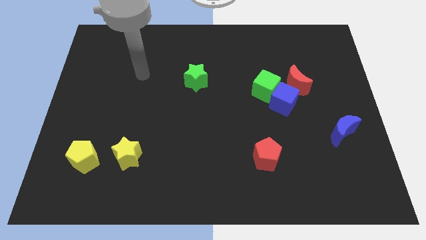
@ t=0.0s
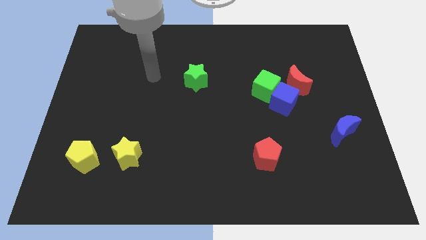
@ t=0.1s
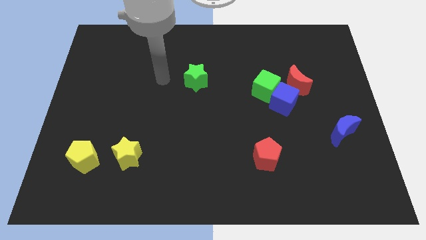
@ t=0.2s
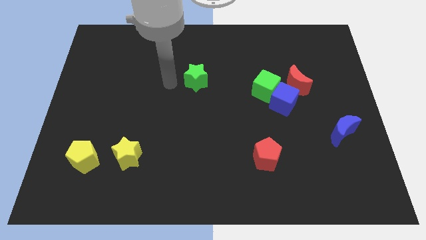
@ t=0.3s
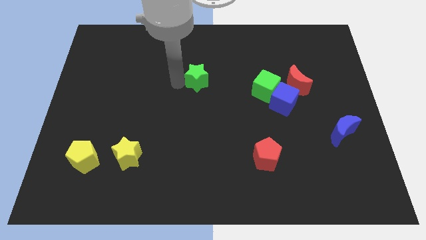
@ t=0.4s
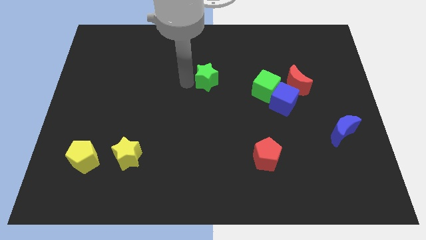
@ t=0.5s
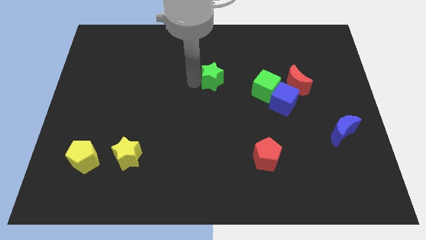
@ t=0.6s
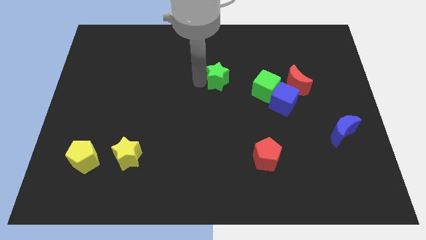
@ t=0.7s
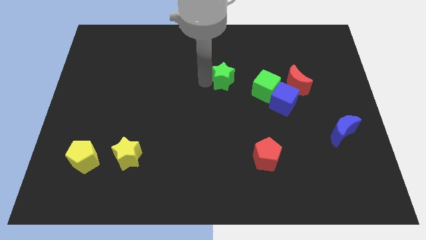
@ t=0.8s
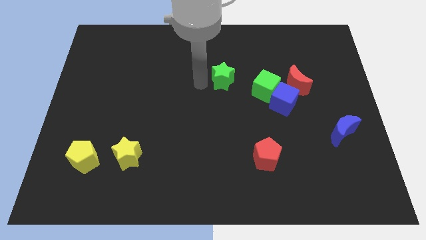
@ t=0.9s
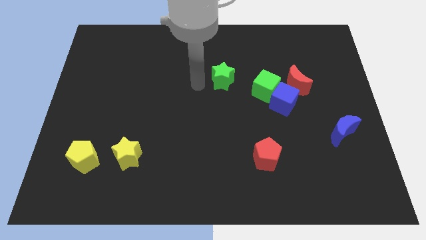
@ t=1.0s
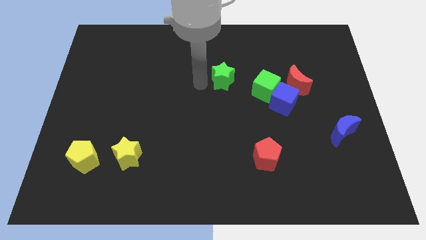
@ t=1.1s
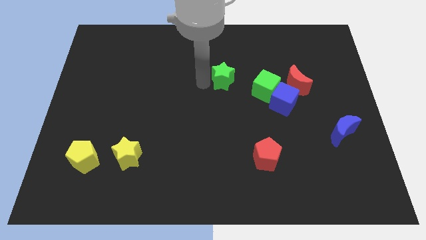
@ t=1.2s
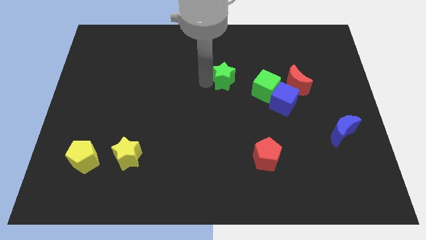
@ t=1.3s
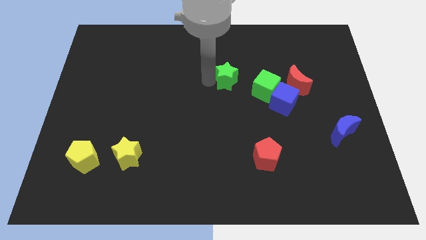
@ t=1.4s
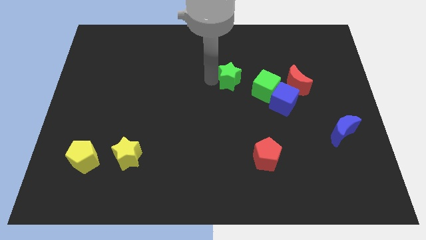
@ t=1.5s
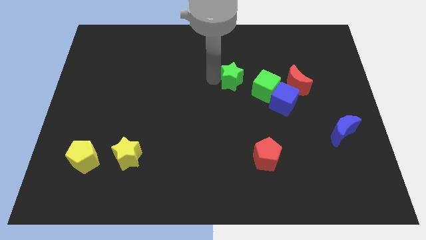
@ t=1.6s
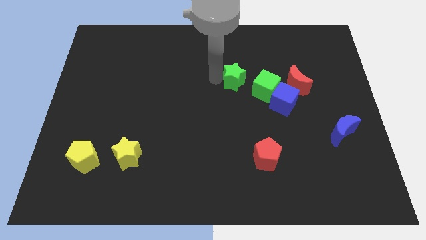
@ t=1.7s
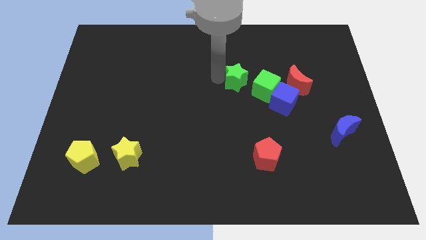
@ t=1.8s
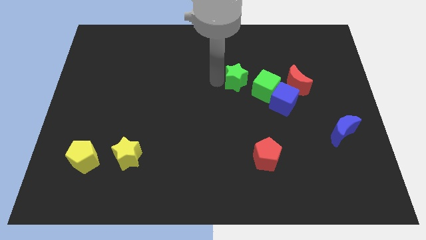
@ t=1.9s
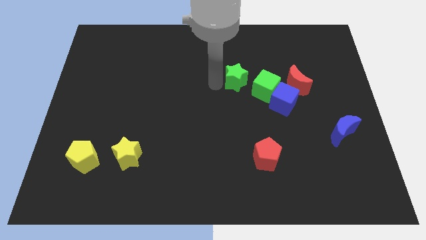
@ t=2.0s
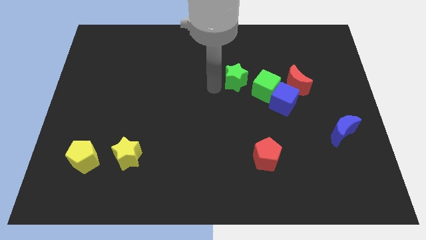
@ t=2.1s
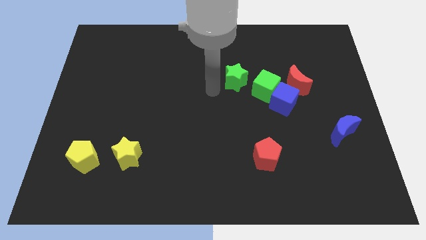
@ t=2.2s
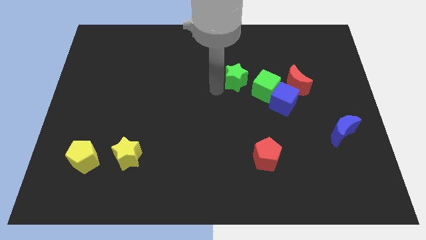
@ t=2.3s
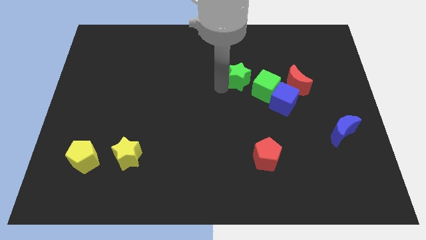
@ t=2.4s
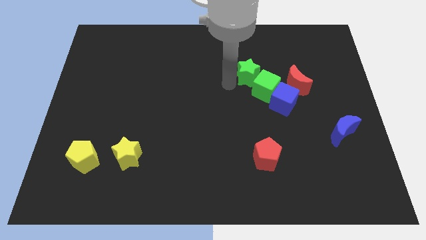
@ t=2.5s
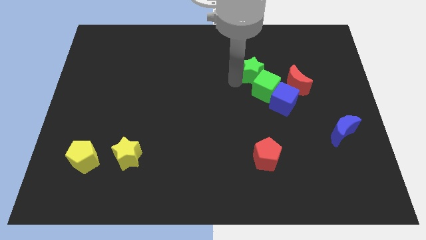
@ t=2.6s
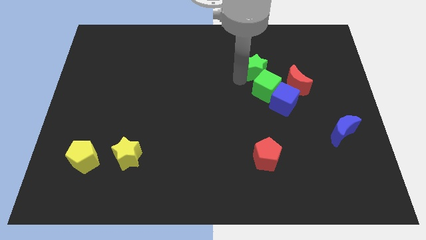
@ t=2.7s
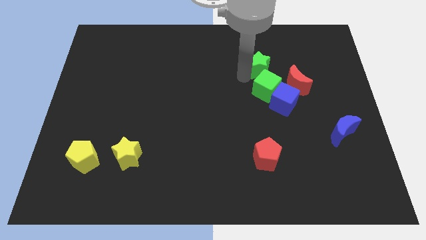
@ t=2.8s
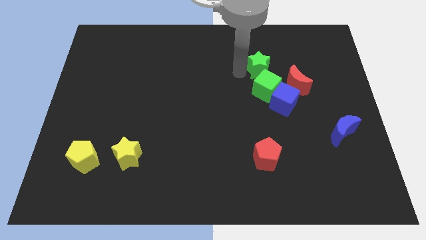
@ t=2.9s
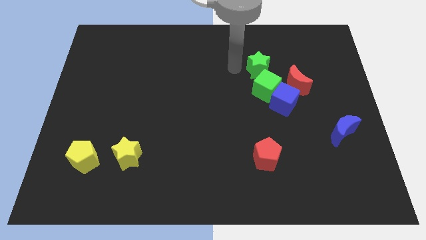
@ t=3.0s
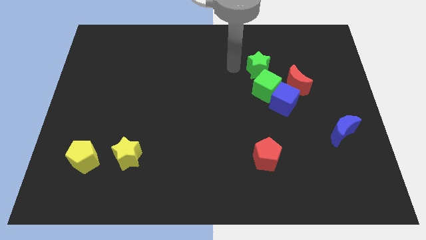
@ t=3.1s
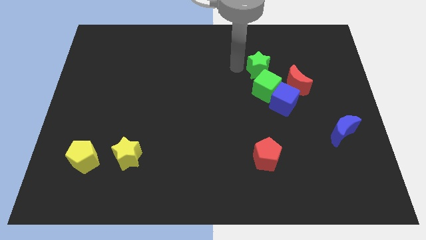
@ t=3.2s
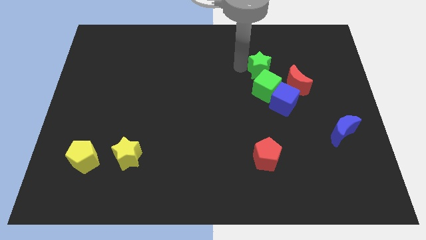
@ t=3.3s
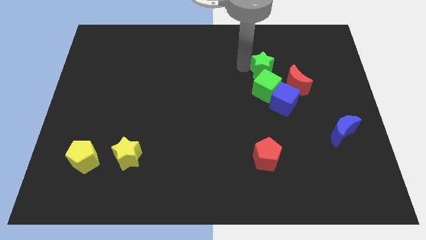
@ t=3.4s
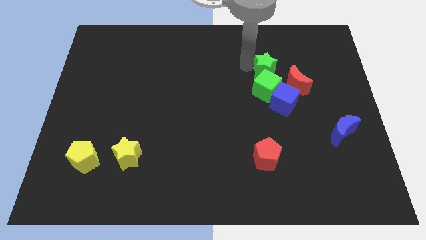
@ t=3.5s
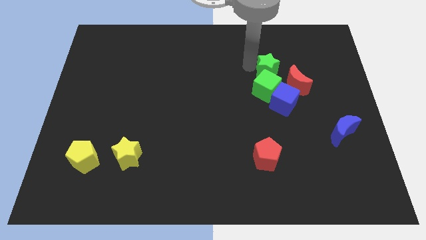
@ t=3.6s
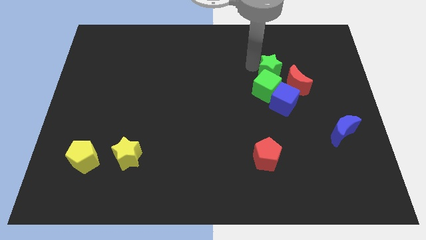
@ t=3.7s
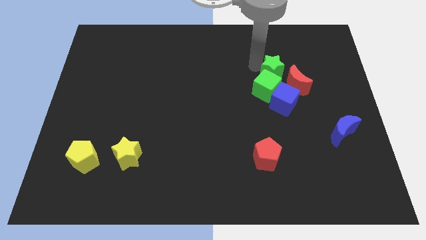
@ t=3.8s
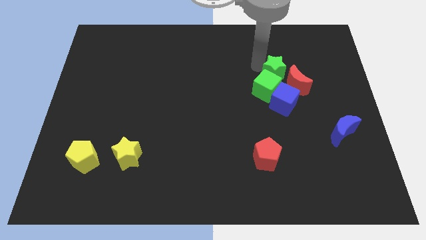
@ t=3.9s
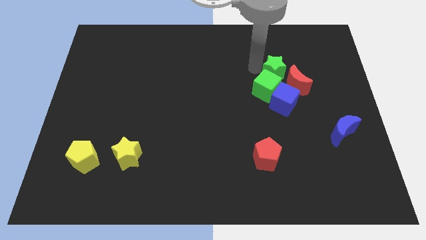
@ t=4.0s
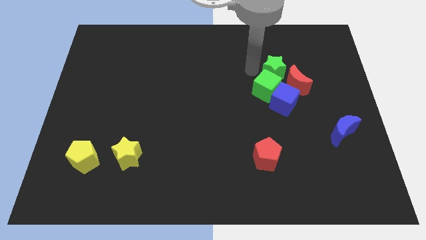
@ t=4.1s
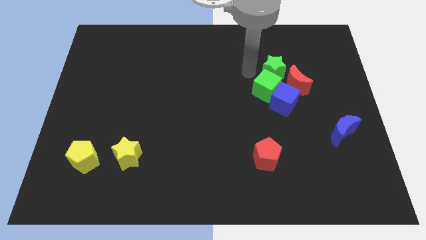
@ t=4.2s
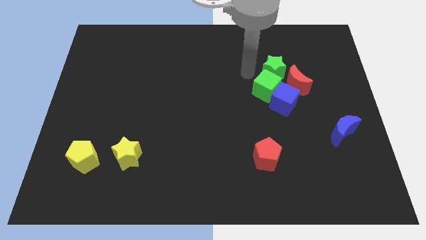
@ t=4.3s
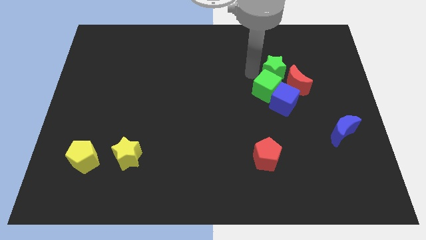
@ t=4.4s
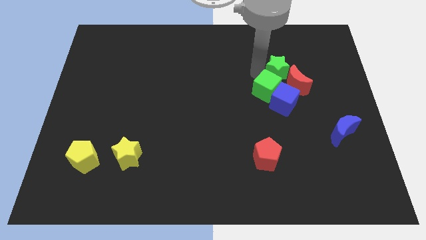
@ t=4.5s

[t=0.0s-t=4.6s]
slide the green star right

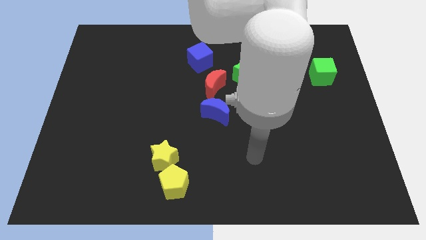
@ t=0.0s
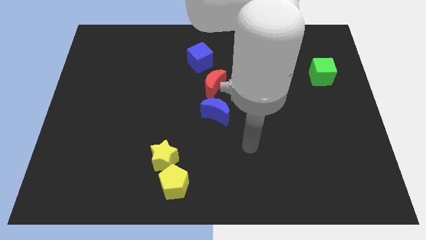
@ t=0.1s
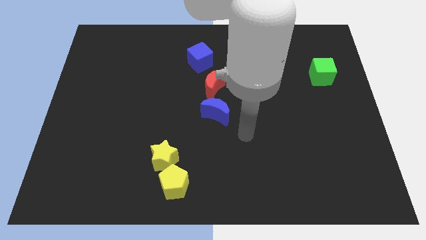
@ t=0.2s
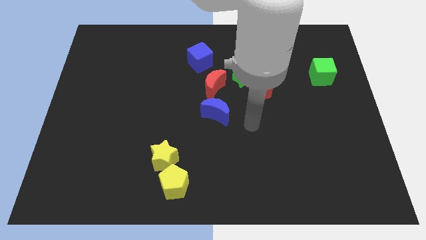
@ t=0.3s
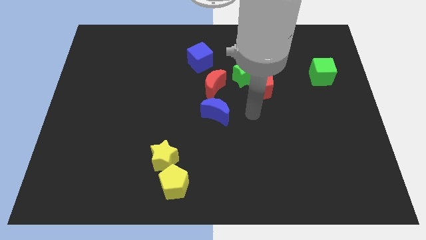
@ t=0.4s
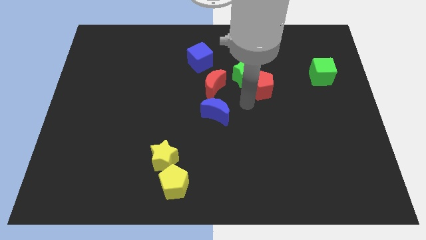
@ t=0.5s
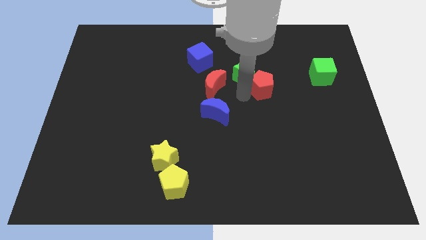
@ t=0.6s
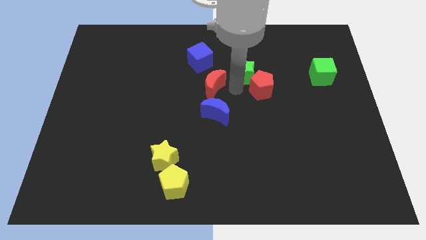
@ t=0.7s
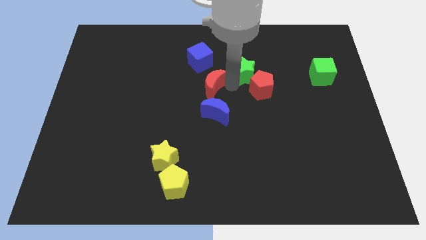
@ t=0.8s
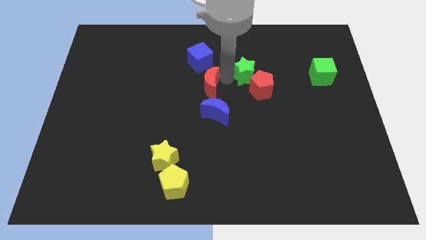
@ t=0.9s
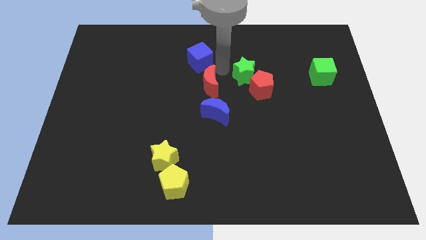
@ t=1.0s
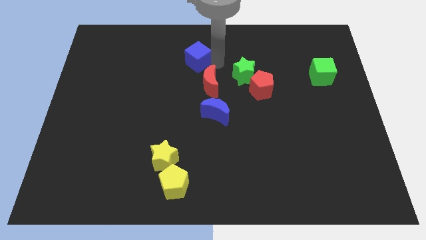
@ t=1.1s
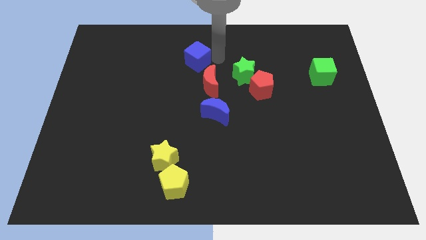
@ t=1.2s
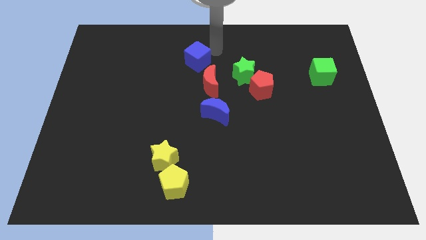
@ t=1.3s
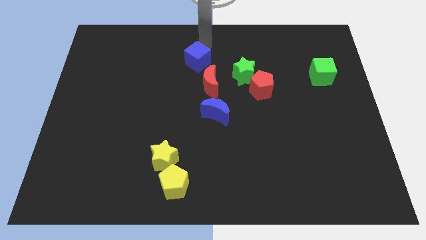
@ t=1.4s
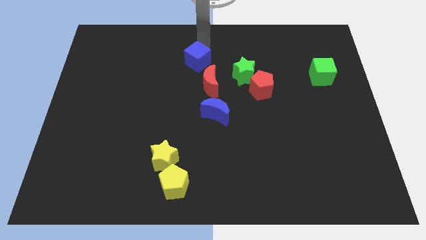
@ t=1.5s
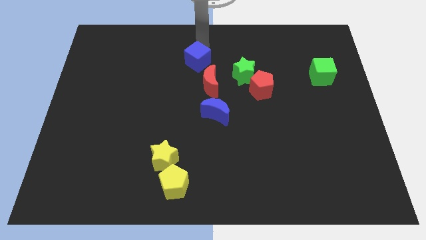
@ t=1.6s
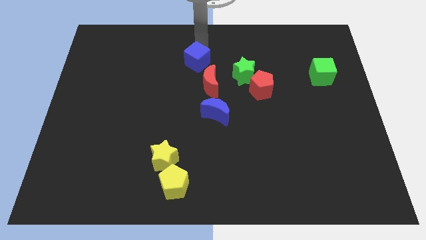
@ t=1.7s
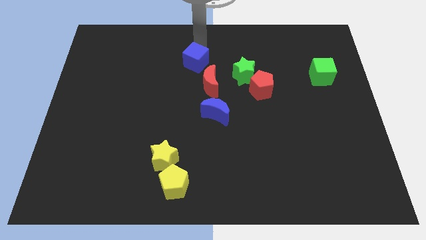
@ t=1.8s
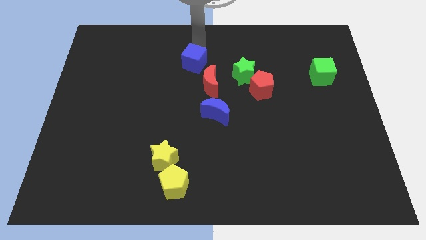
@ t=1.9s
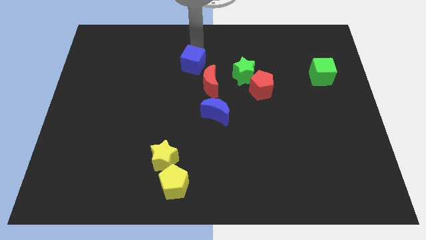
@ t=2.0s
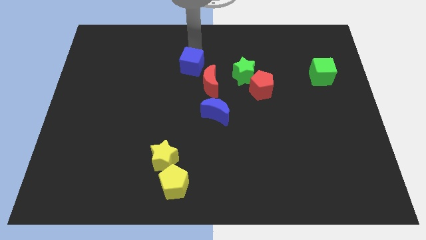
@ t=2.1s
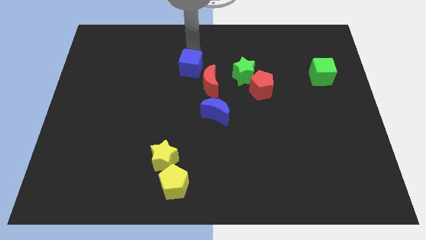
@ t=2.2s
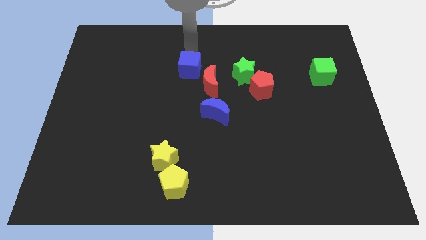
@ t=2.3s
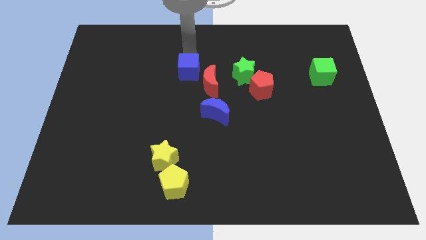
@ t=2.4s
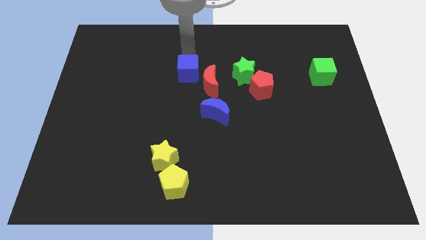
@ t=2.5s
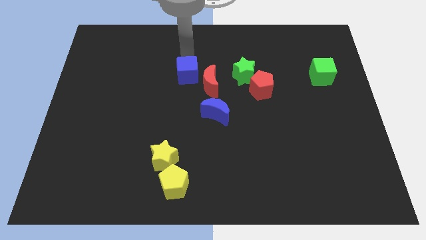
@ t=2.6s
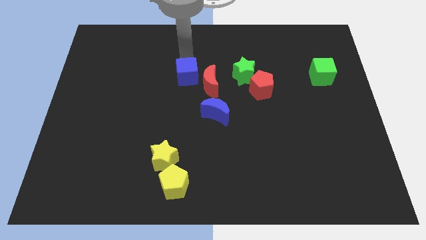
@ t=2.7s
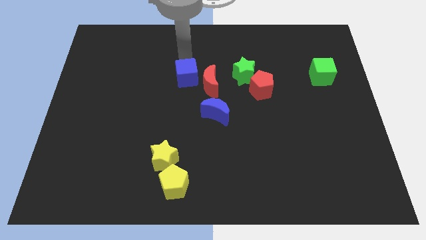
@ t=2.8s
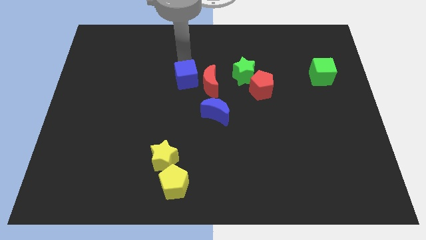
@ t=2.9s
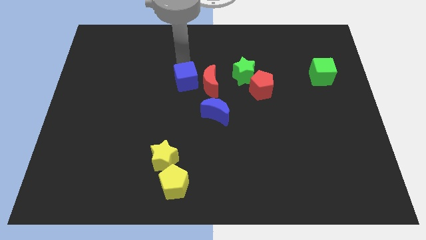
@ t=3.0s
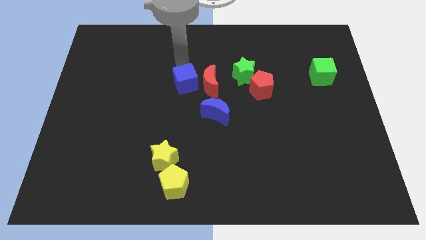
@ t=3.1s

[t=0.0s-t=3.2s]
slide the blue cube a little bit down
